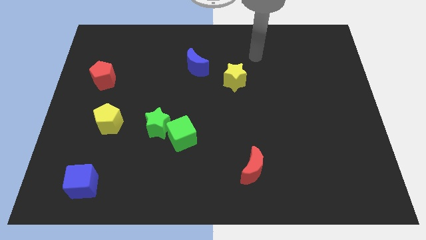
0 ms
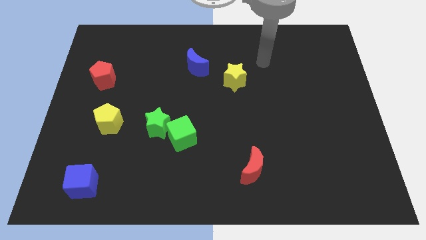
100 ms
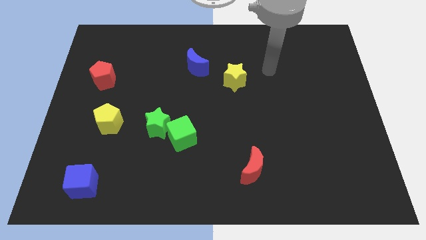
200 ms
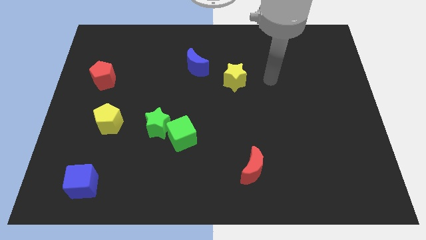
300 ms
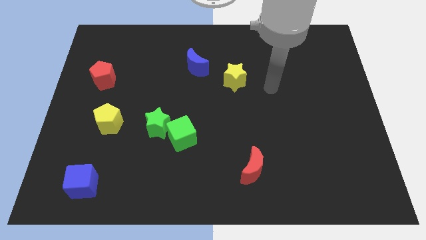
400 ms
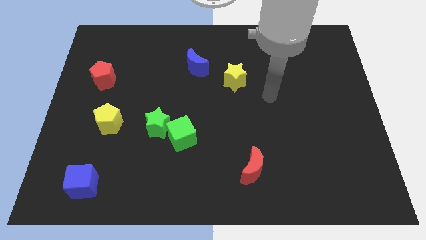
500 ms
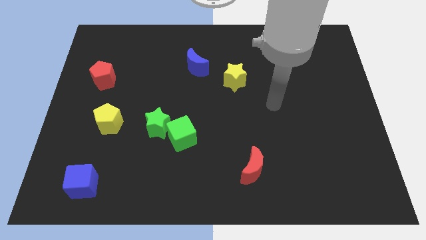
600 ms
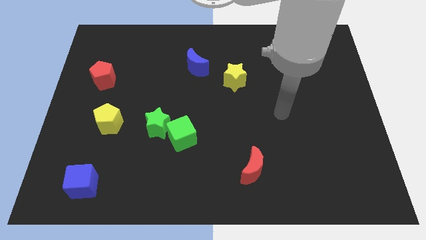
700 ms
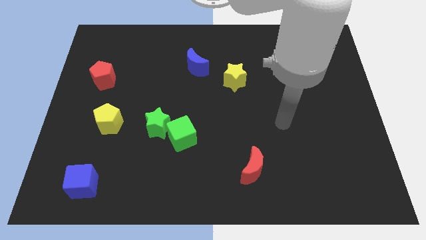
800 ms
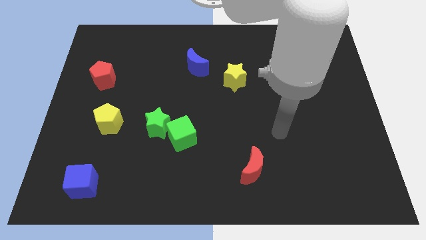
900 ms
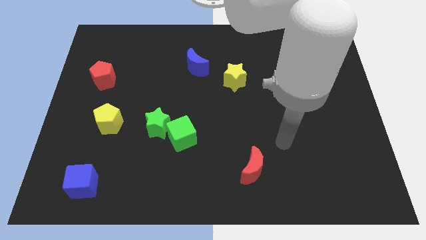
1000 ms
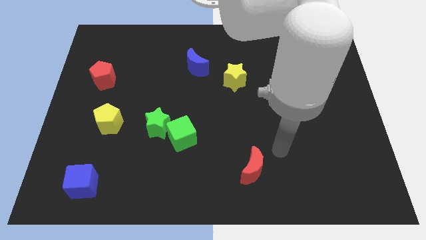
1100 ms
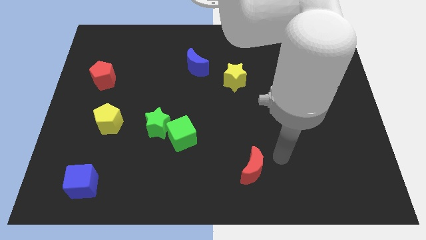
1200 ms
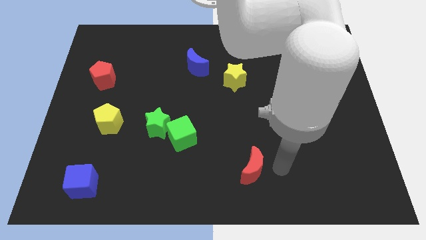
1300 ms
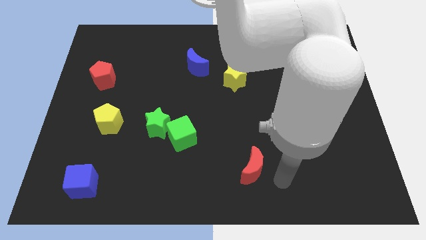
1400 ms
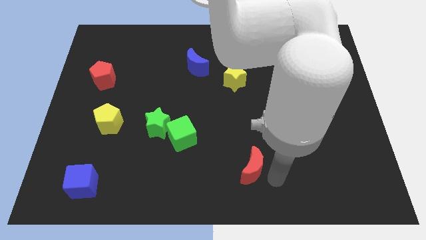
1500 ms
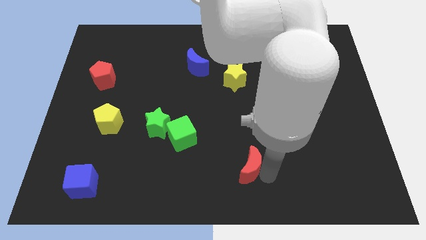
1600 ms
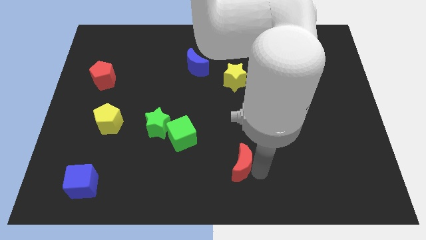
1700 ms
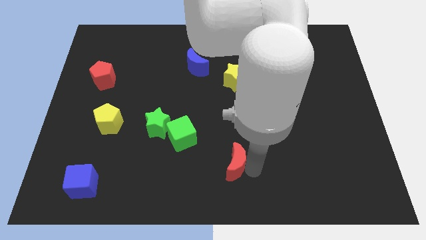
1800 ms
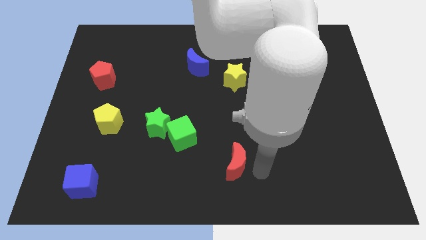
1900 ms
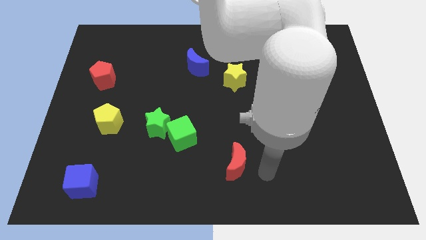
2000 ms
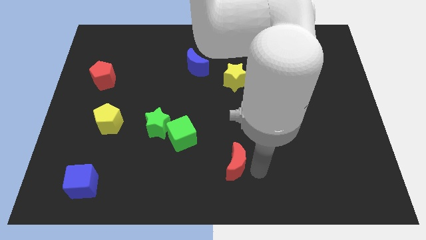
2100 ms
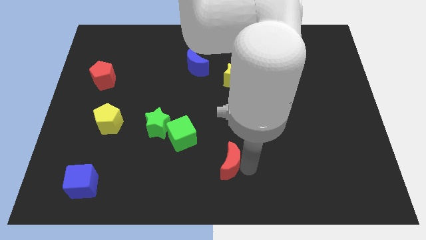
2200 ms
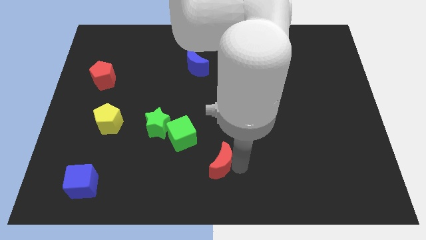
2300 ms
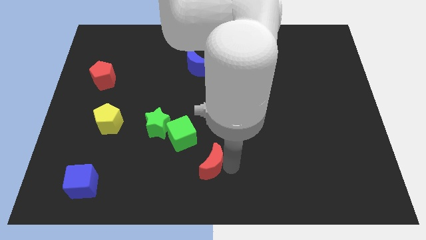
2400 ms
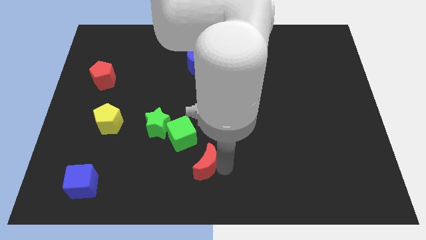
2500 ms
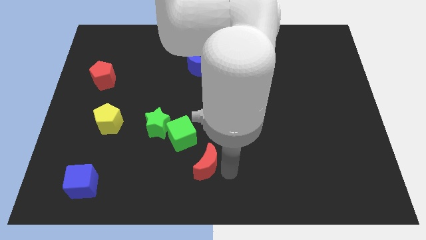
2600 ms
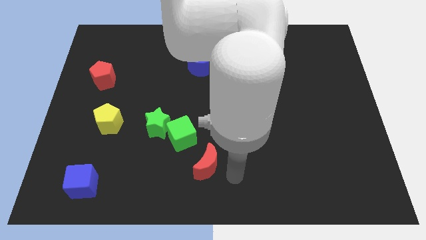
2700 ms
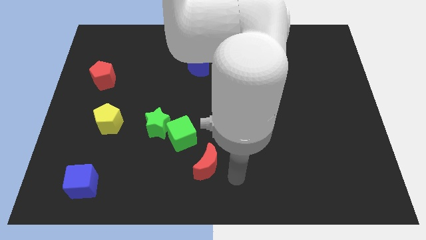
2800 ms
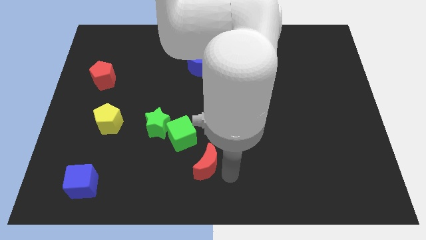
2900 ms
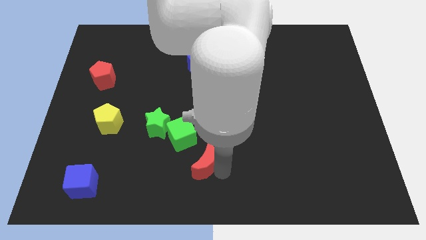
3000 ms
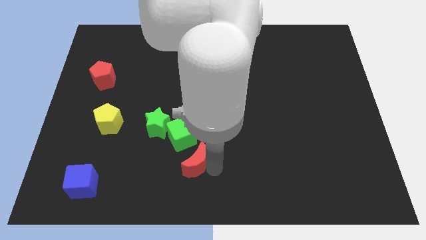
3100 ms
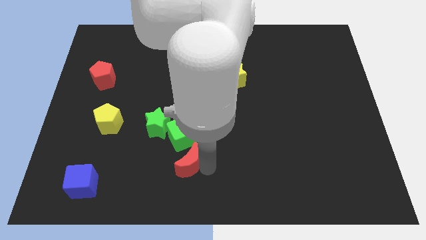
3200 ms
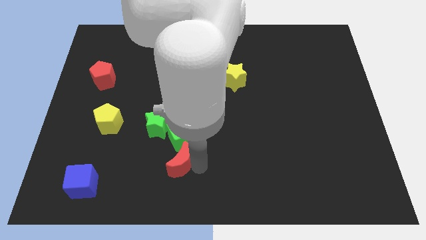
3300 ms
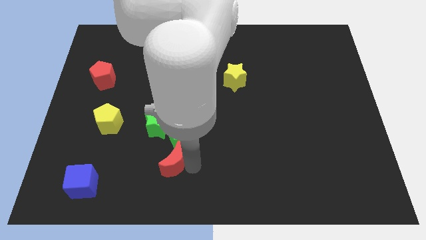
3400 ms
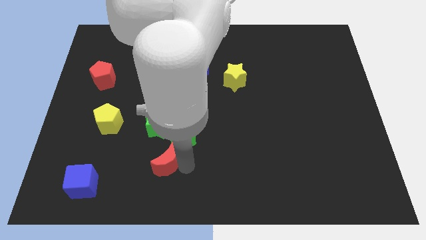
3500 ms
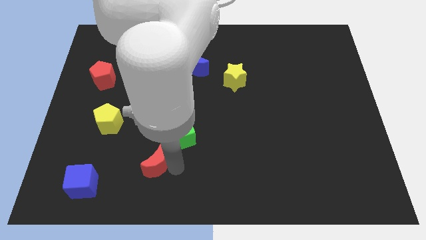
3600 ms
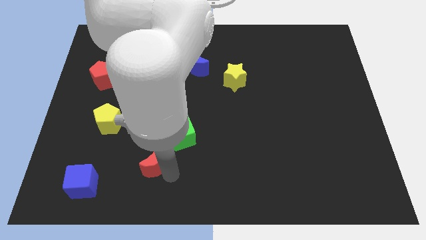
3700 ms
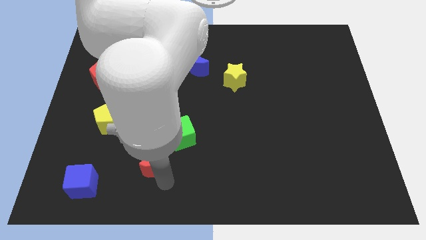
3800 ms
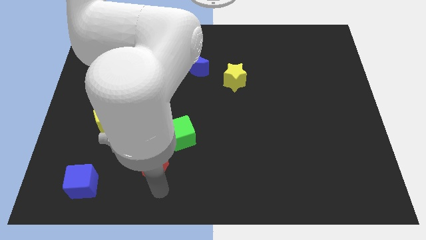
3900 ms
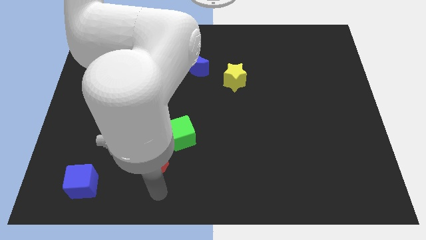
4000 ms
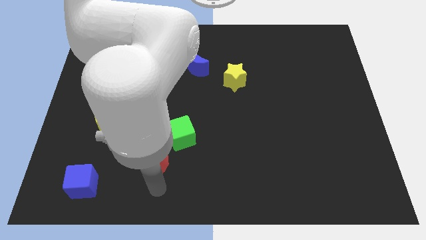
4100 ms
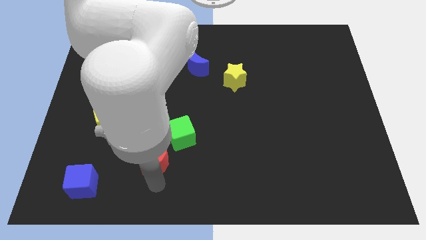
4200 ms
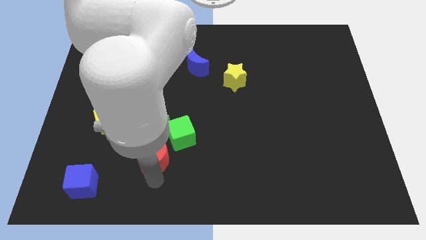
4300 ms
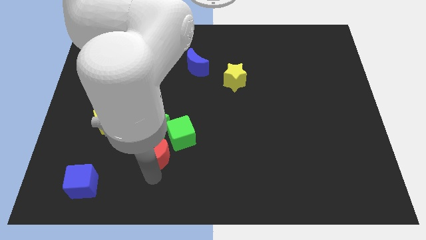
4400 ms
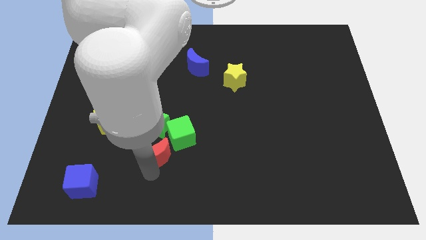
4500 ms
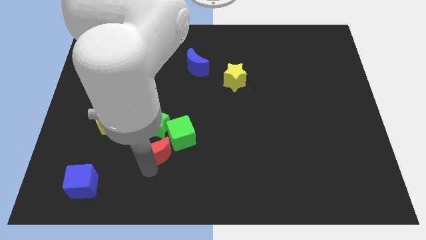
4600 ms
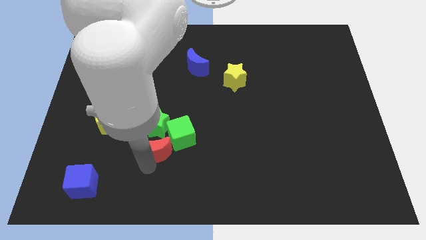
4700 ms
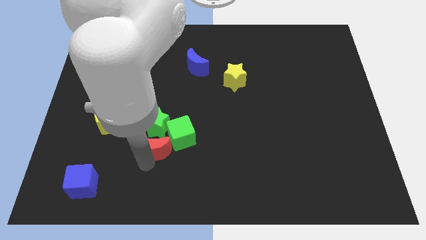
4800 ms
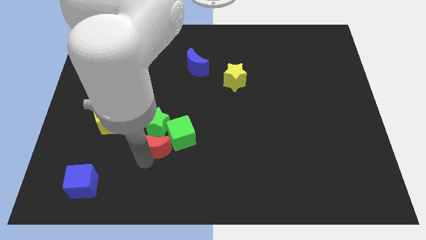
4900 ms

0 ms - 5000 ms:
push the red moon towards the green star

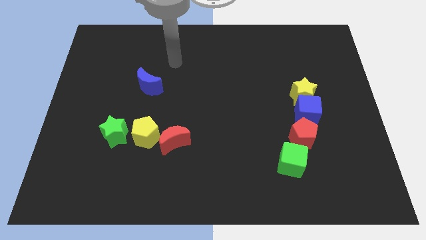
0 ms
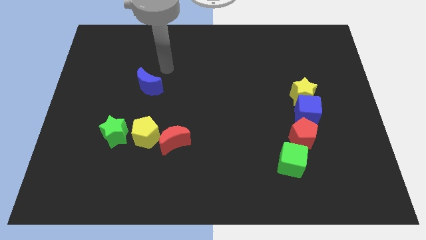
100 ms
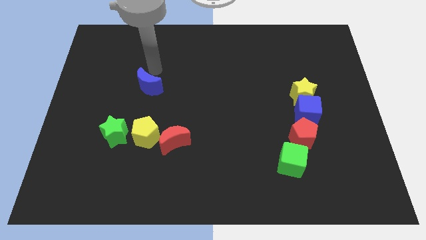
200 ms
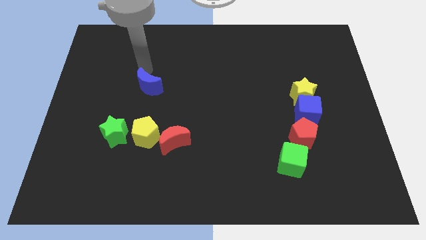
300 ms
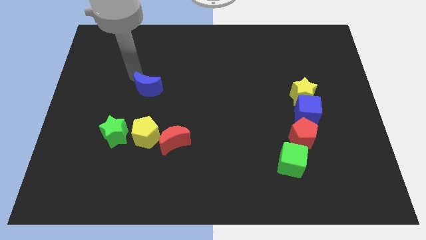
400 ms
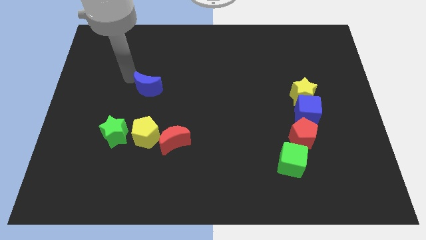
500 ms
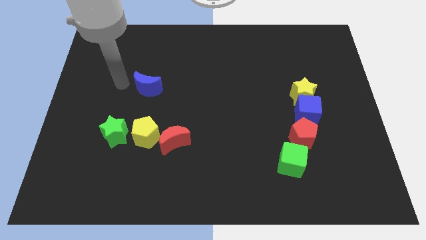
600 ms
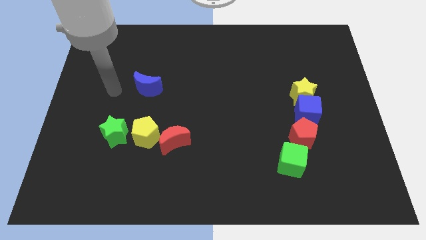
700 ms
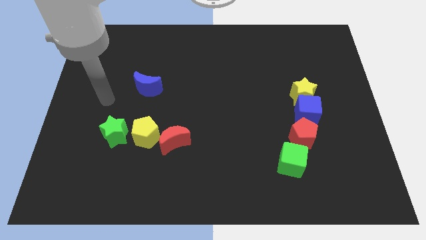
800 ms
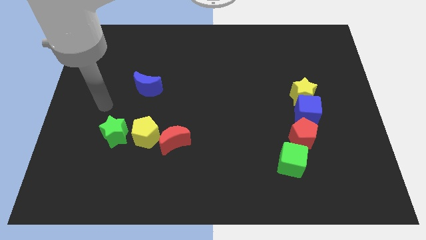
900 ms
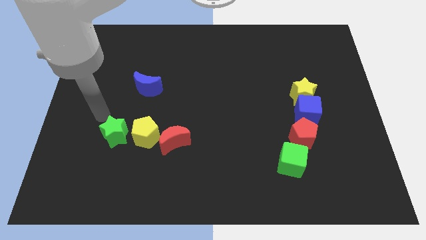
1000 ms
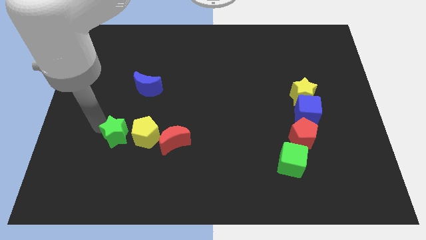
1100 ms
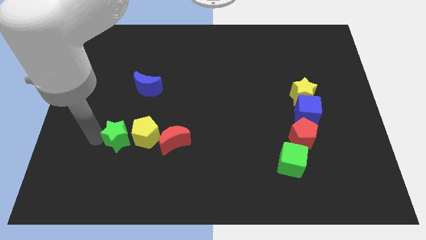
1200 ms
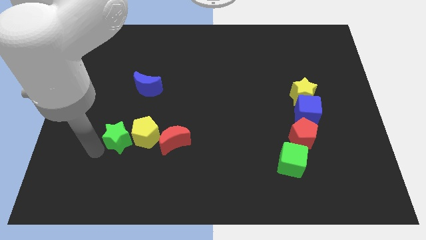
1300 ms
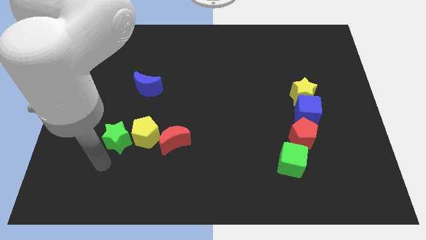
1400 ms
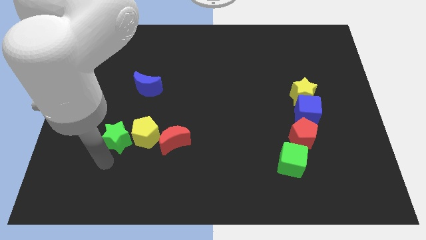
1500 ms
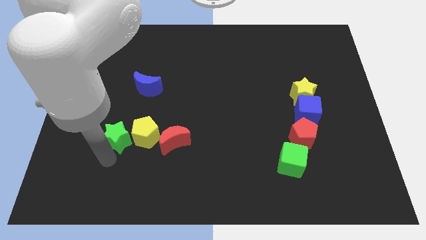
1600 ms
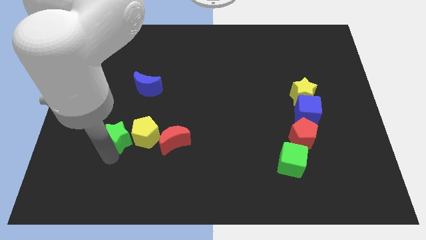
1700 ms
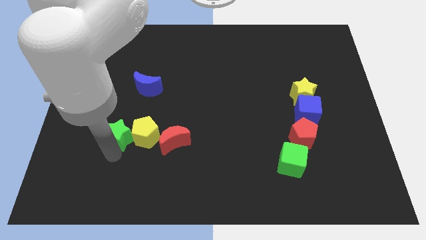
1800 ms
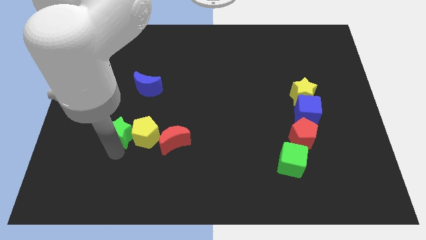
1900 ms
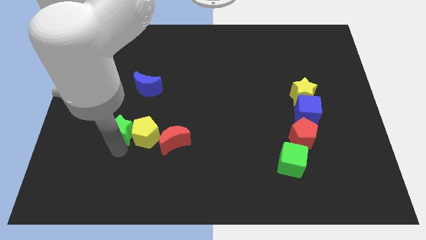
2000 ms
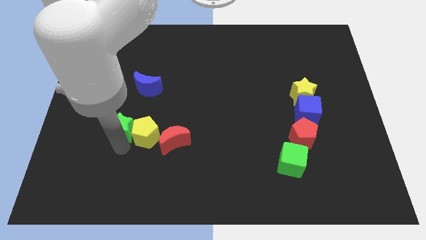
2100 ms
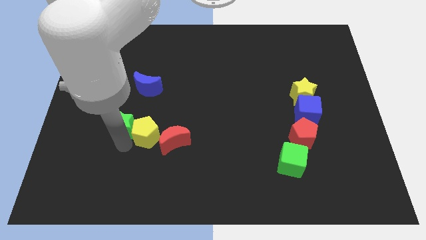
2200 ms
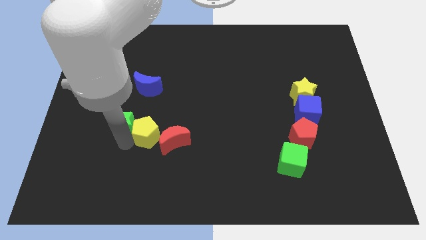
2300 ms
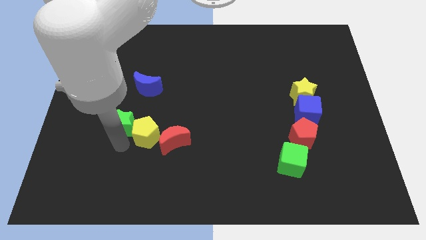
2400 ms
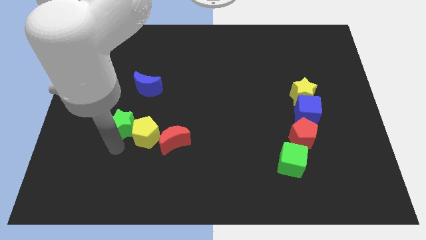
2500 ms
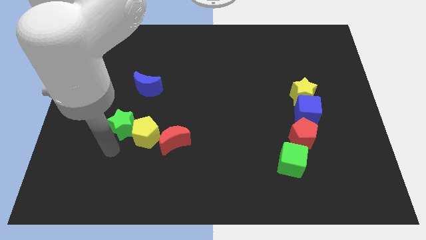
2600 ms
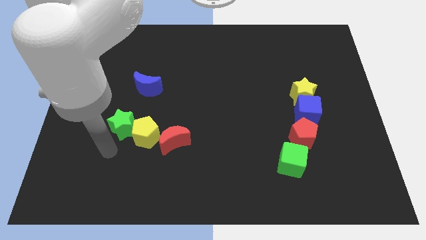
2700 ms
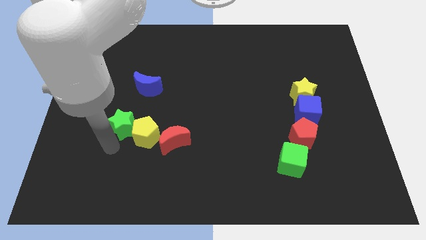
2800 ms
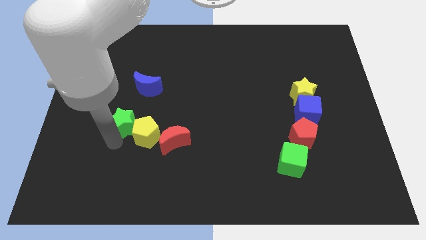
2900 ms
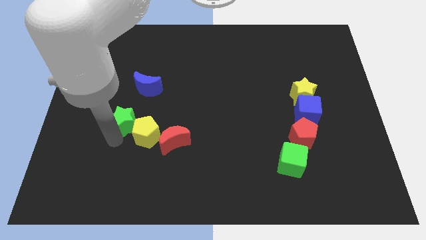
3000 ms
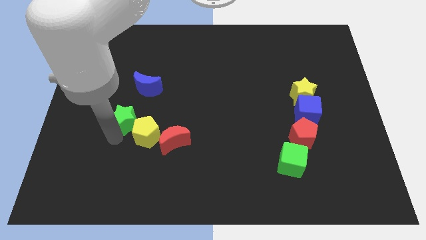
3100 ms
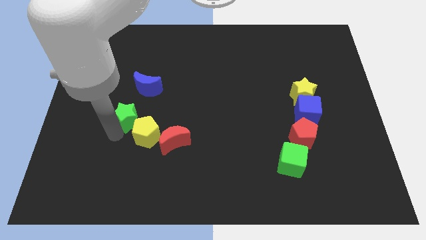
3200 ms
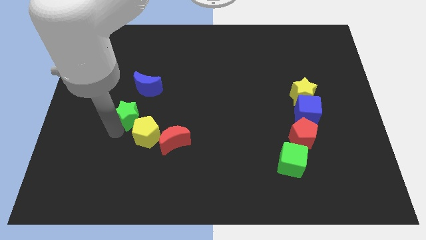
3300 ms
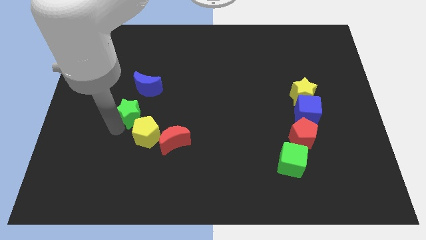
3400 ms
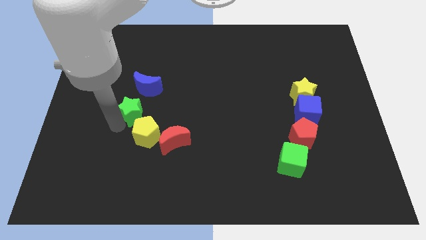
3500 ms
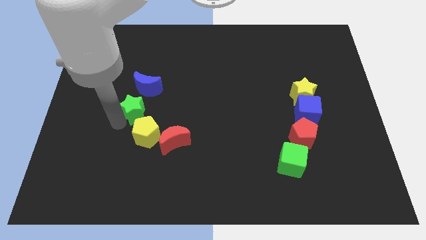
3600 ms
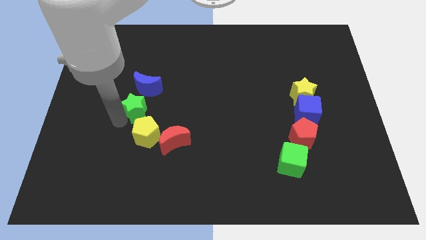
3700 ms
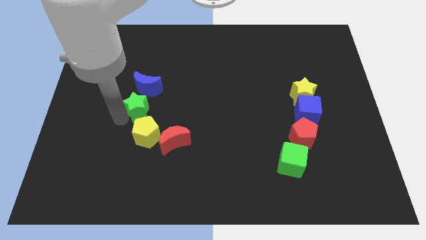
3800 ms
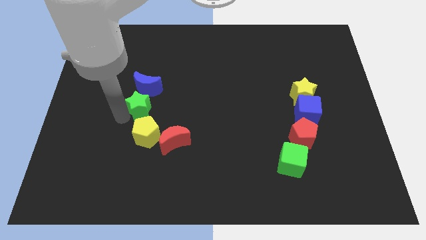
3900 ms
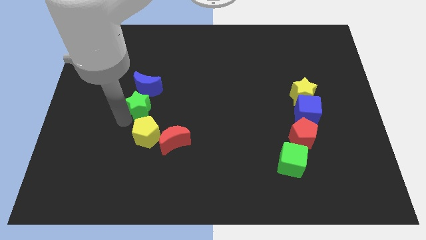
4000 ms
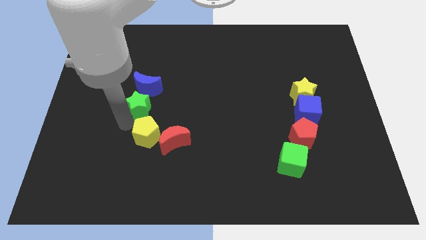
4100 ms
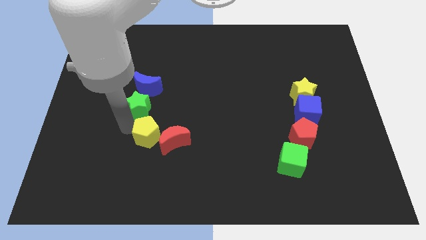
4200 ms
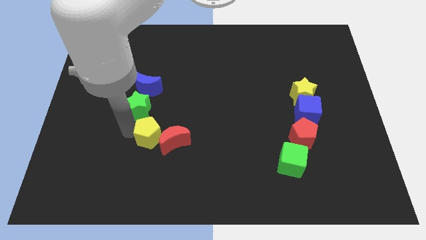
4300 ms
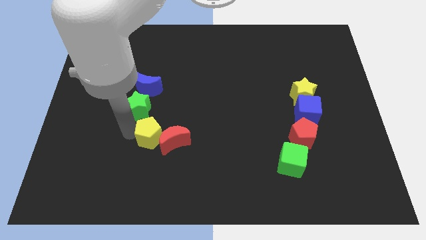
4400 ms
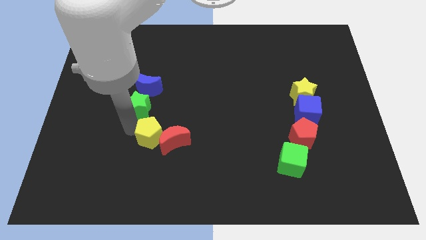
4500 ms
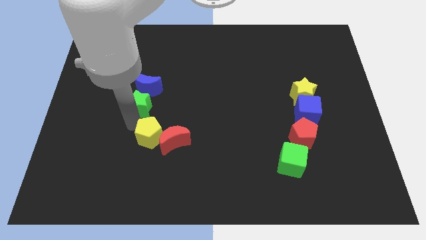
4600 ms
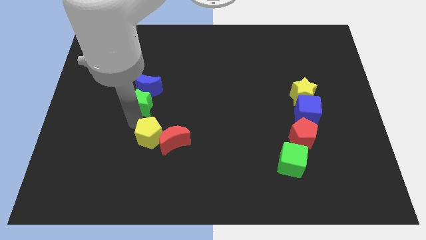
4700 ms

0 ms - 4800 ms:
put the green star to the blue moon
